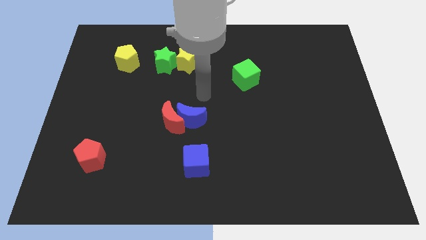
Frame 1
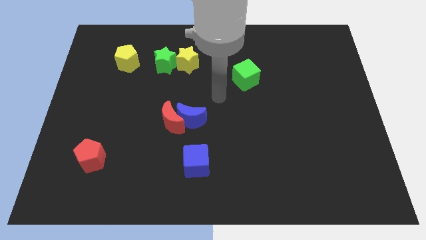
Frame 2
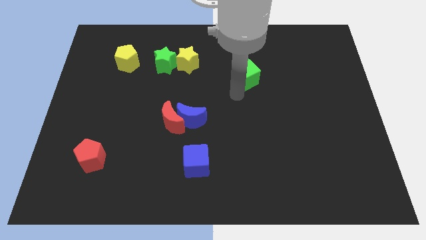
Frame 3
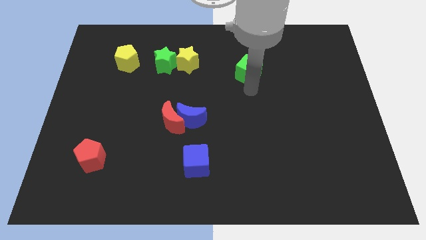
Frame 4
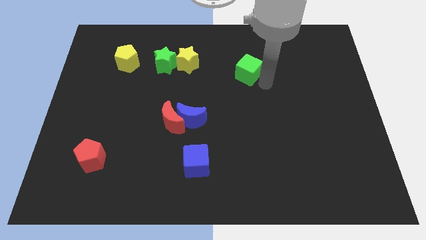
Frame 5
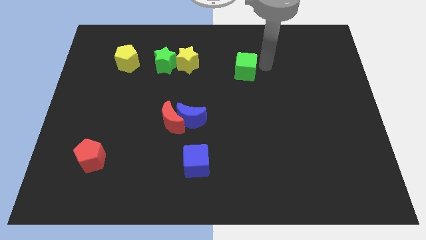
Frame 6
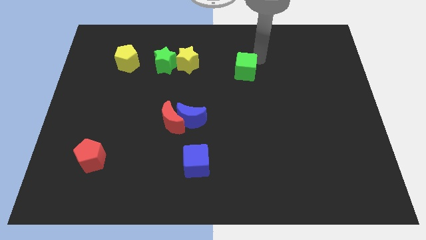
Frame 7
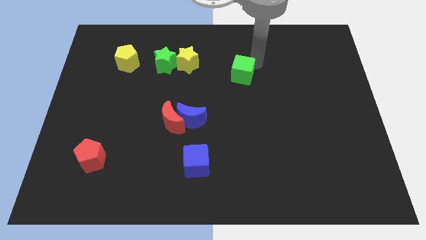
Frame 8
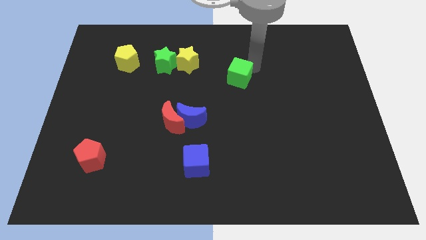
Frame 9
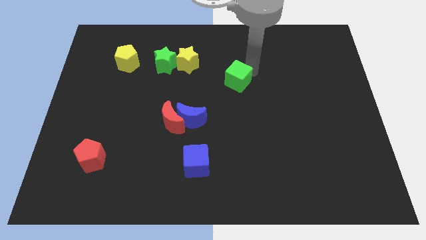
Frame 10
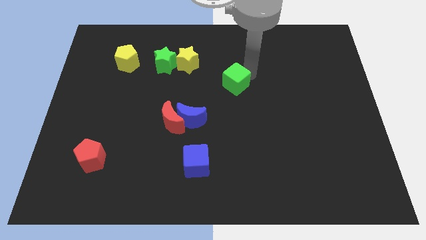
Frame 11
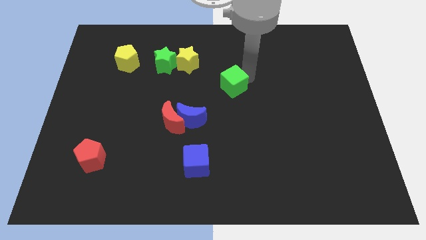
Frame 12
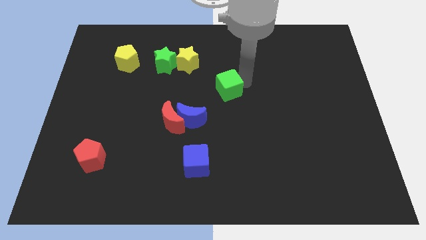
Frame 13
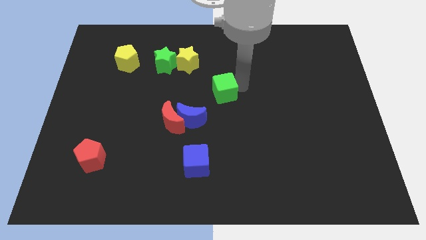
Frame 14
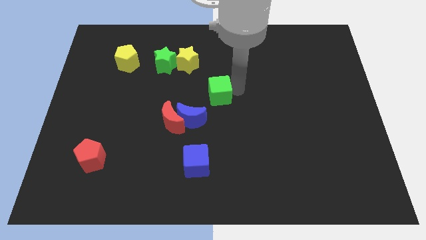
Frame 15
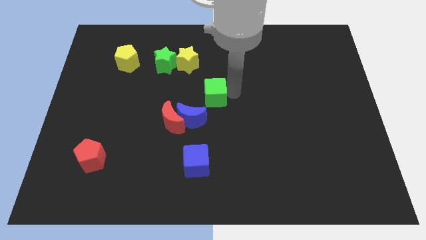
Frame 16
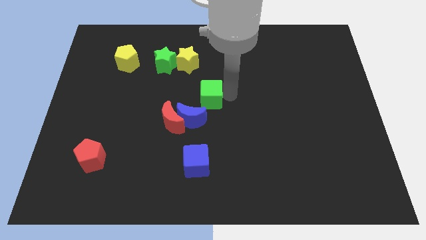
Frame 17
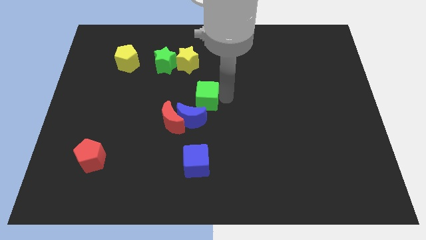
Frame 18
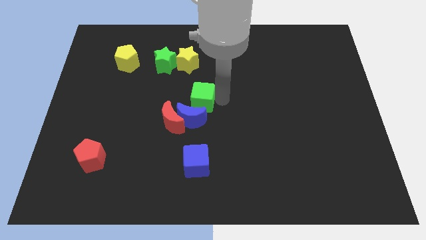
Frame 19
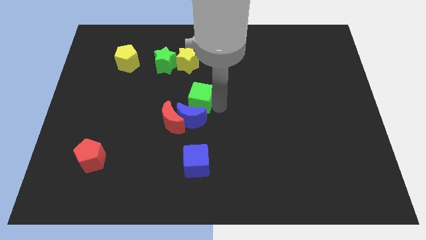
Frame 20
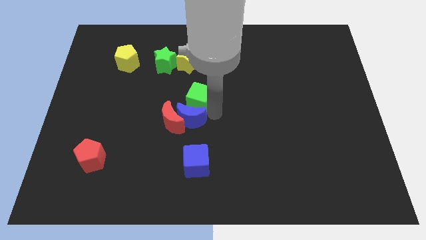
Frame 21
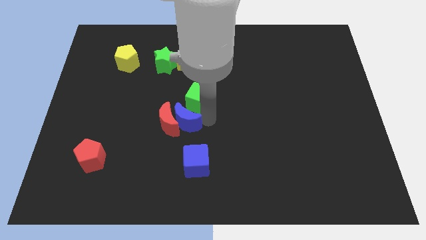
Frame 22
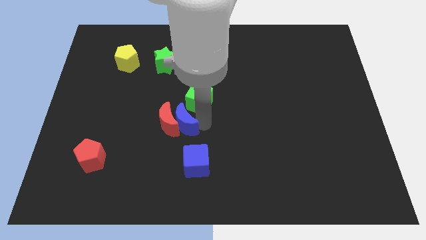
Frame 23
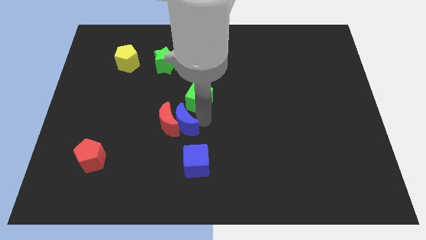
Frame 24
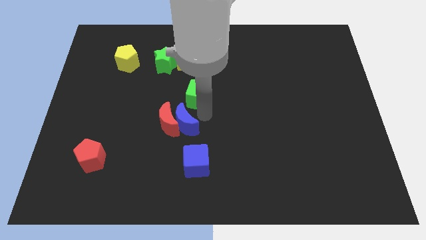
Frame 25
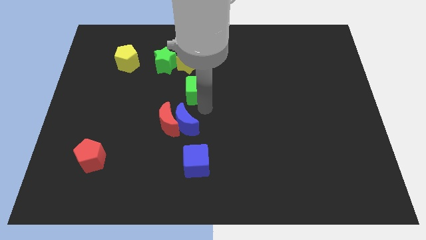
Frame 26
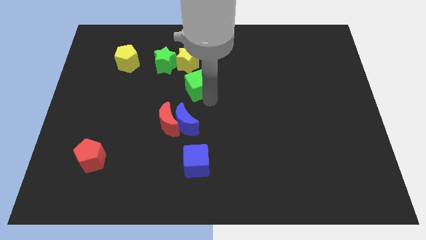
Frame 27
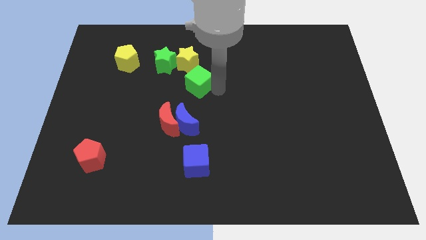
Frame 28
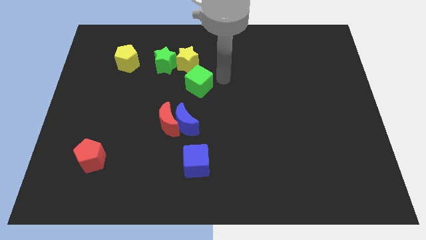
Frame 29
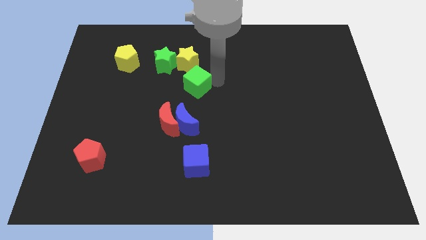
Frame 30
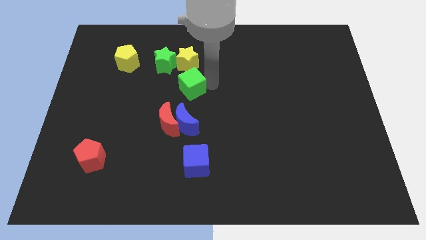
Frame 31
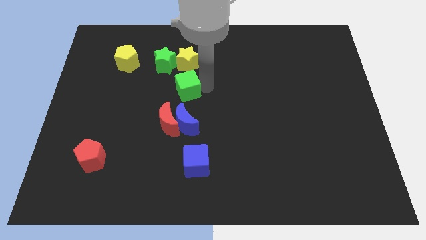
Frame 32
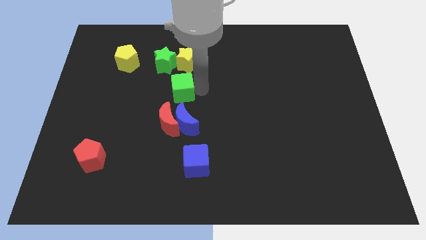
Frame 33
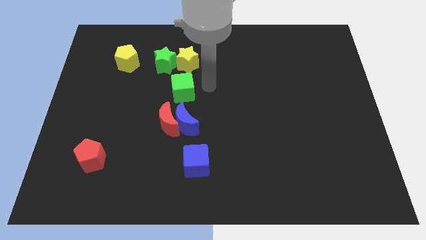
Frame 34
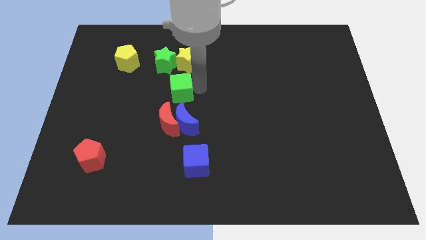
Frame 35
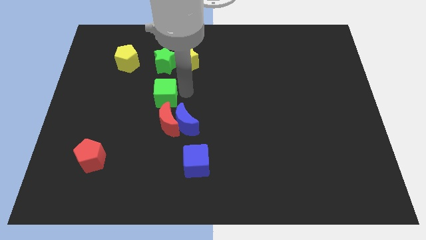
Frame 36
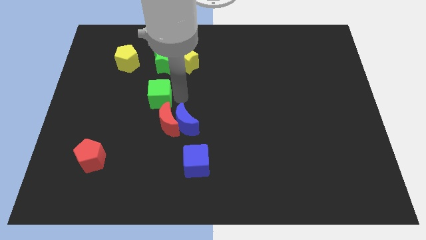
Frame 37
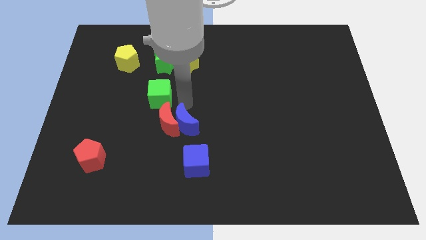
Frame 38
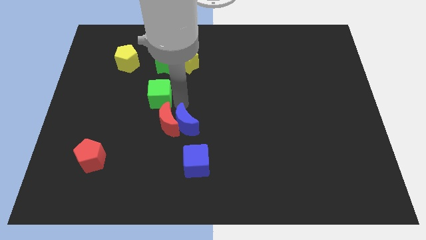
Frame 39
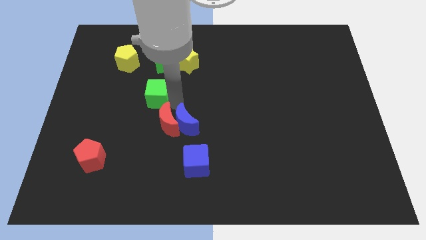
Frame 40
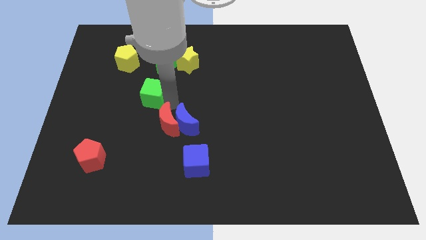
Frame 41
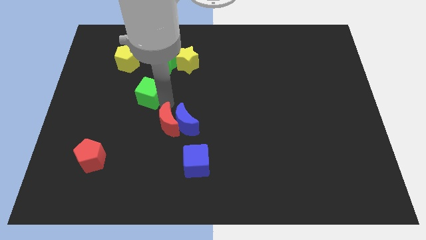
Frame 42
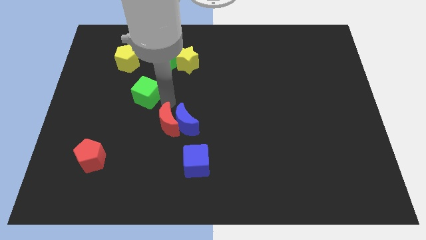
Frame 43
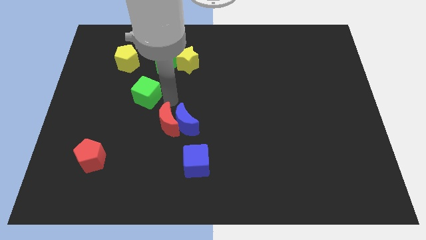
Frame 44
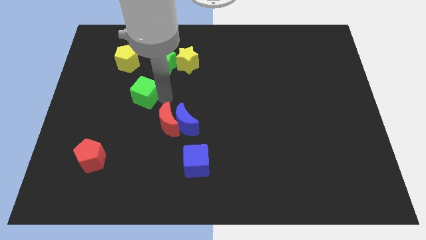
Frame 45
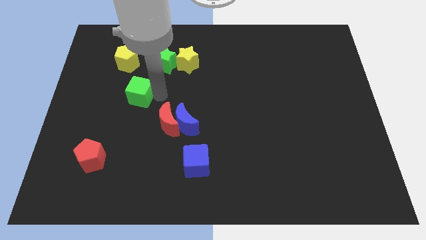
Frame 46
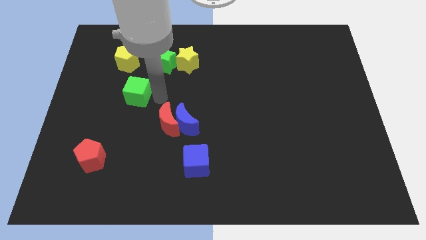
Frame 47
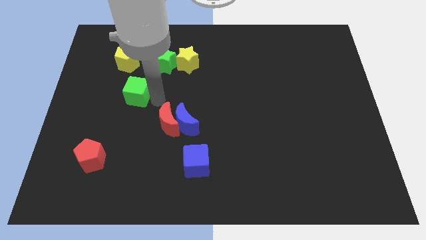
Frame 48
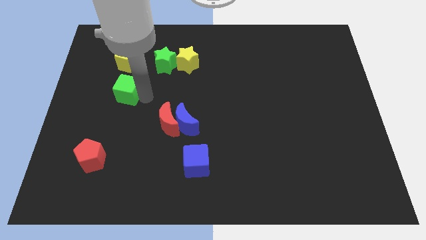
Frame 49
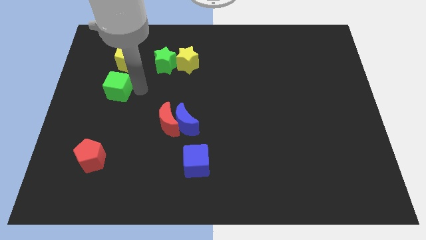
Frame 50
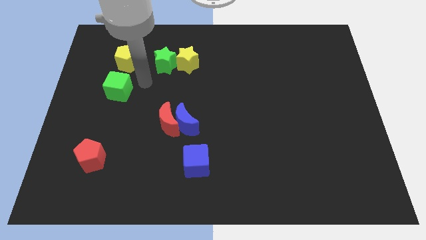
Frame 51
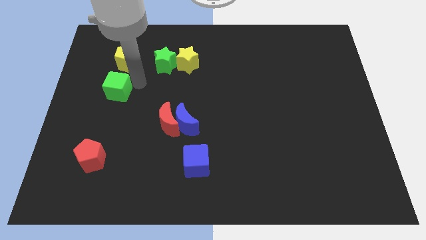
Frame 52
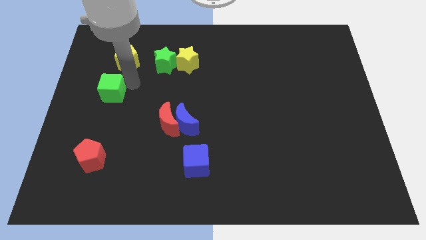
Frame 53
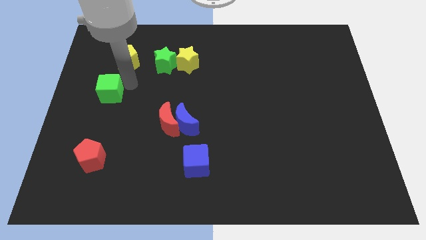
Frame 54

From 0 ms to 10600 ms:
push the green cube to the left side of the board

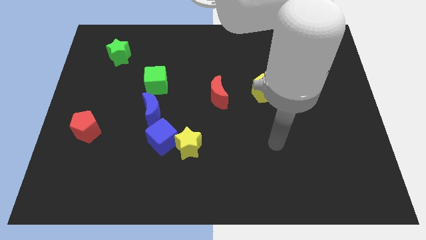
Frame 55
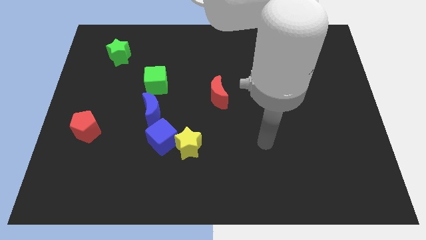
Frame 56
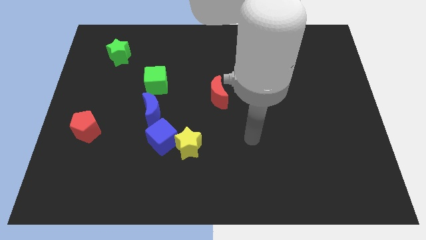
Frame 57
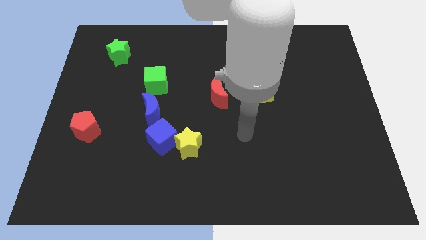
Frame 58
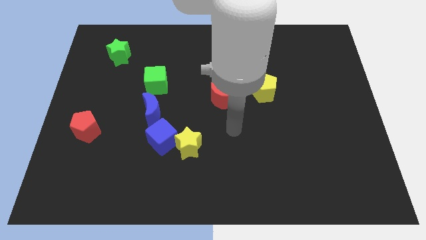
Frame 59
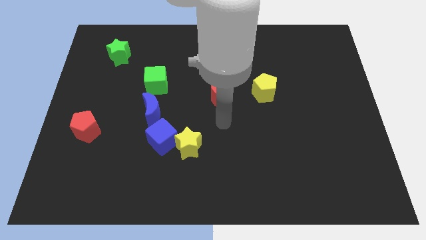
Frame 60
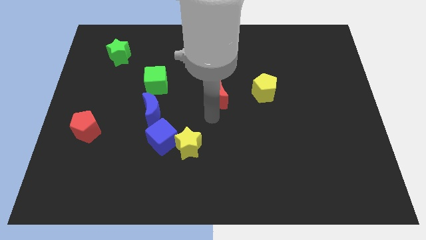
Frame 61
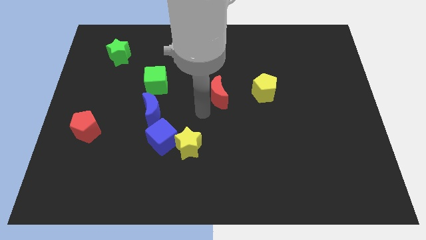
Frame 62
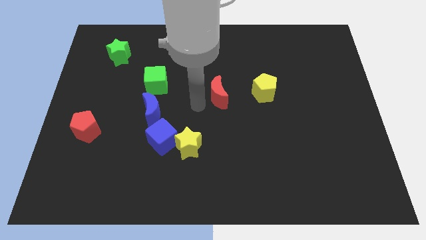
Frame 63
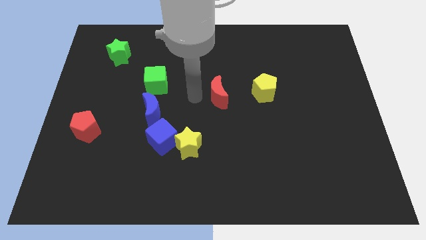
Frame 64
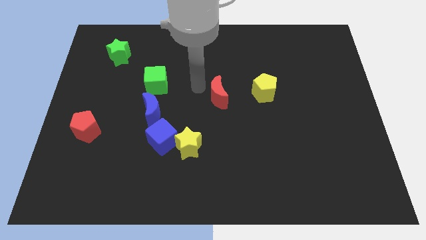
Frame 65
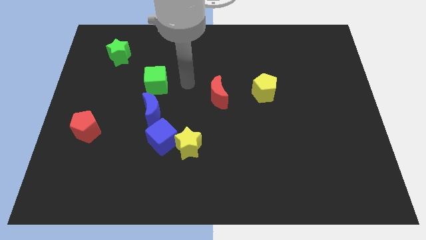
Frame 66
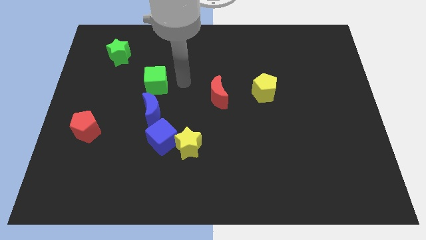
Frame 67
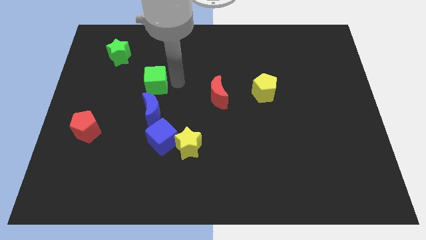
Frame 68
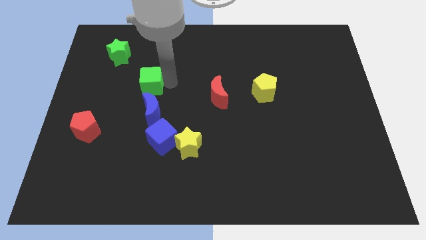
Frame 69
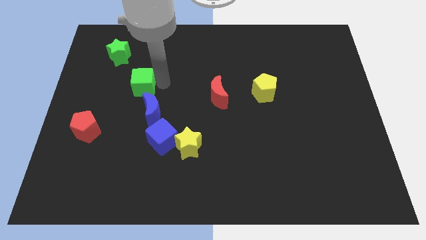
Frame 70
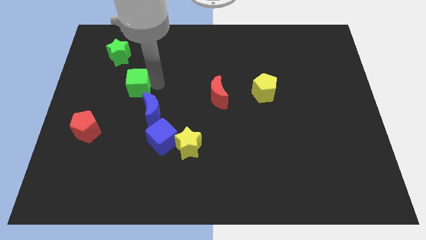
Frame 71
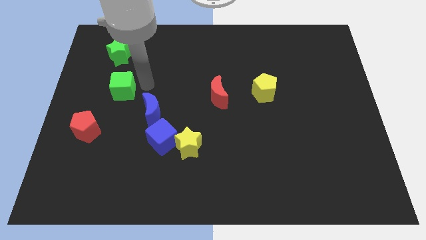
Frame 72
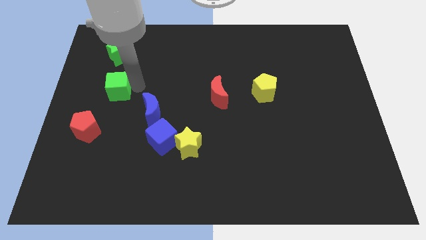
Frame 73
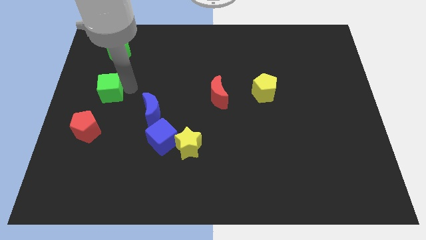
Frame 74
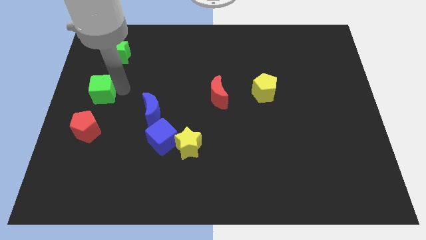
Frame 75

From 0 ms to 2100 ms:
put the green cube to the center left
